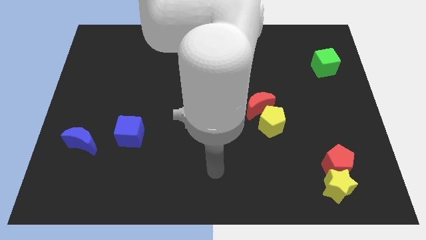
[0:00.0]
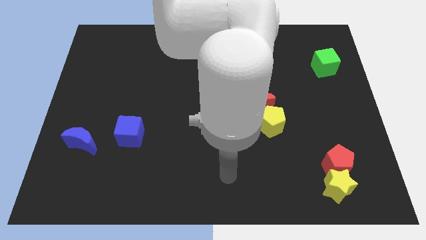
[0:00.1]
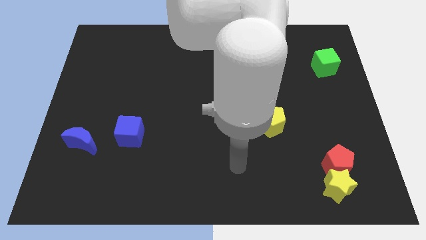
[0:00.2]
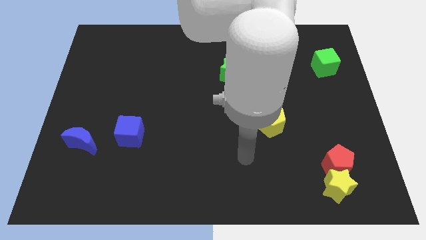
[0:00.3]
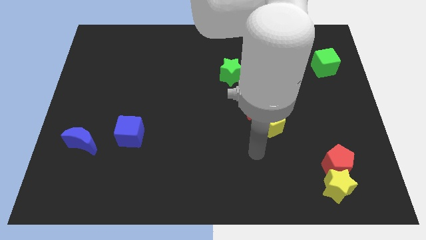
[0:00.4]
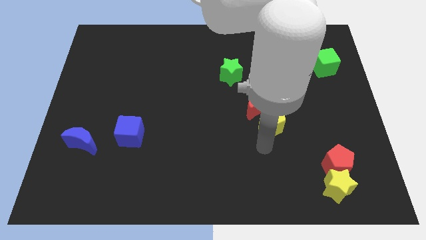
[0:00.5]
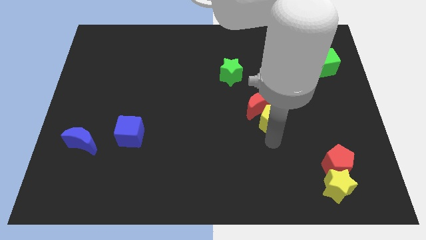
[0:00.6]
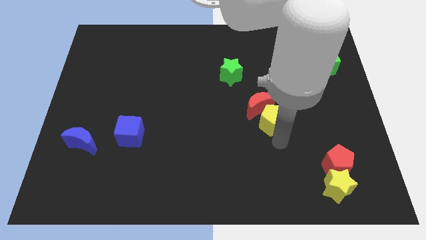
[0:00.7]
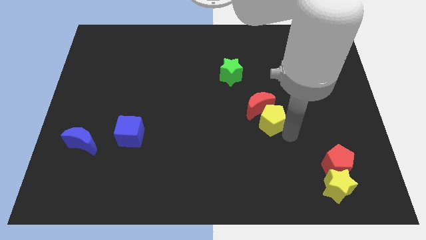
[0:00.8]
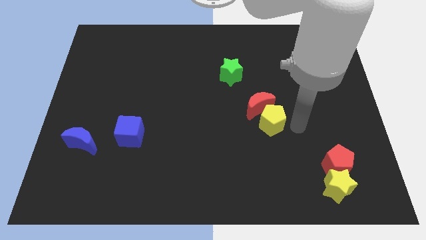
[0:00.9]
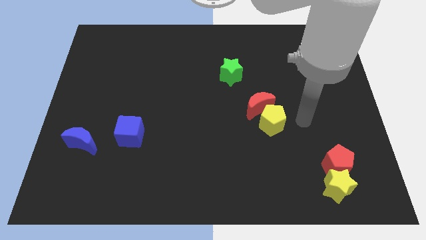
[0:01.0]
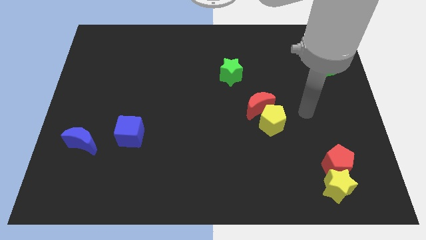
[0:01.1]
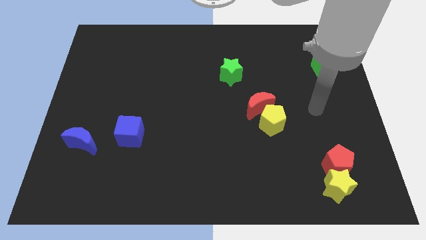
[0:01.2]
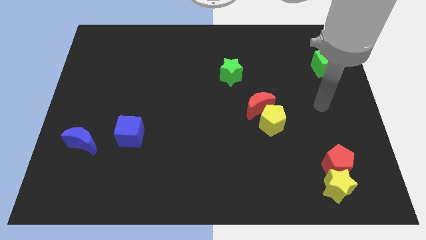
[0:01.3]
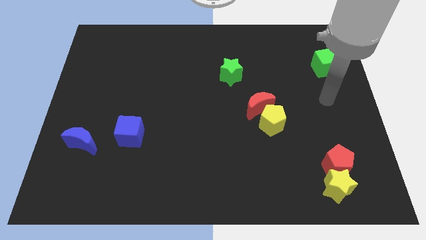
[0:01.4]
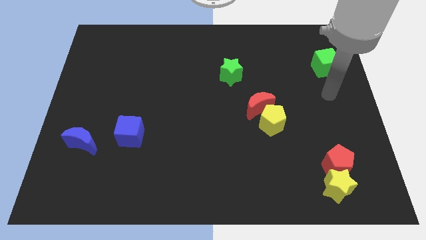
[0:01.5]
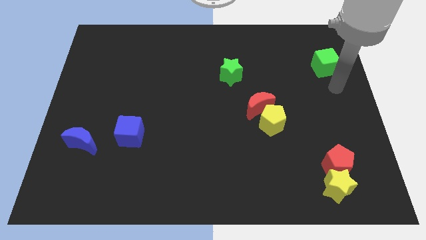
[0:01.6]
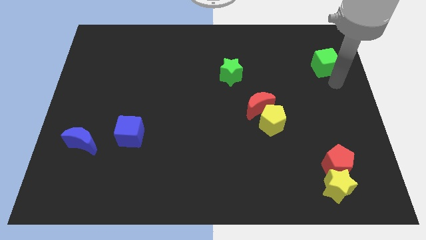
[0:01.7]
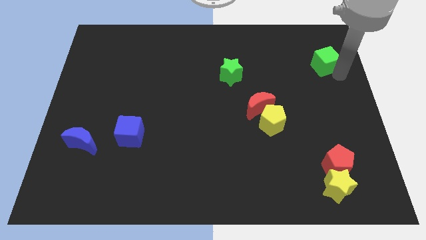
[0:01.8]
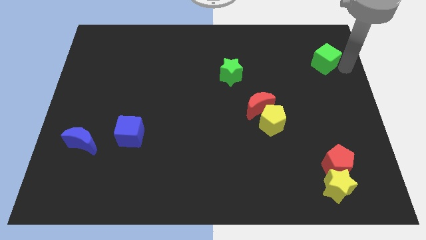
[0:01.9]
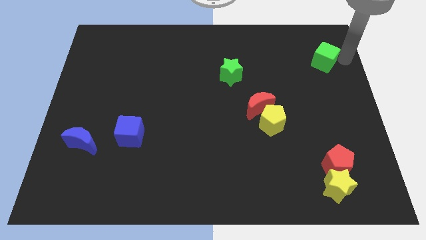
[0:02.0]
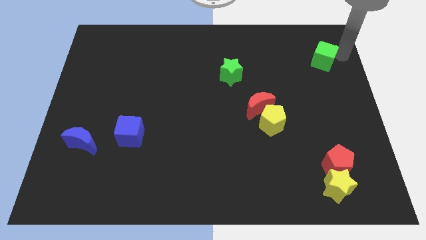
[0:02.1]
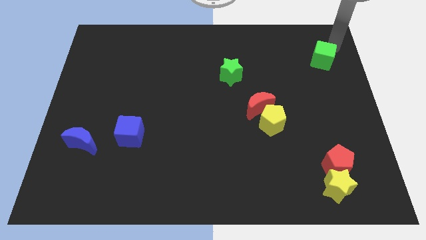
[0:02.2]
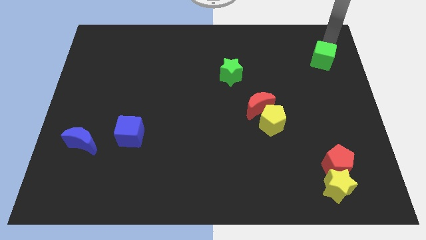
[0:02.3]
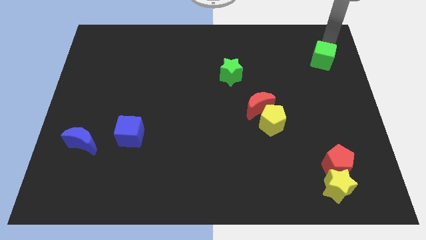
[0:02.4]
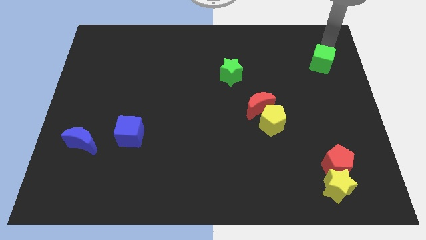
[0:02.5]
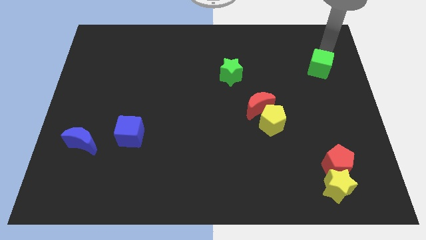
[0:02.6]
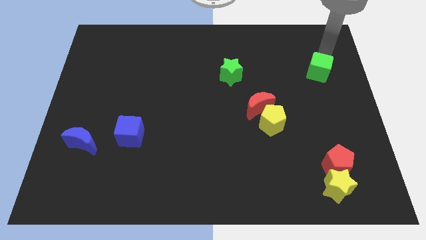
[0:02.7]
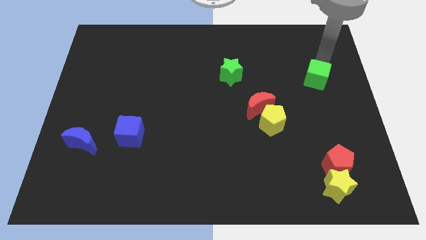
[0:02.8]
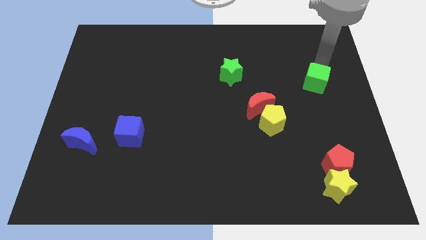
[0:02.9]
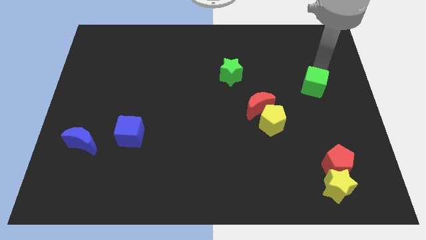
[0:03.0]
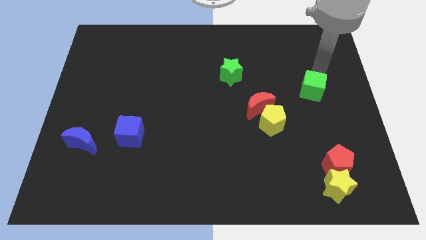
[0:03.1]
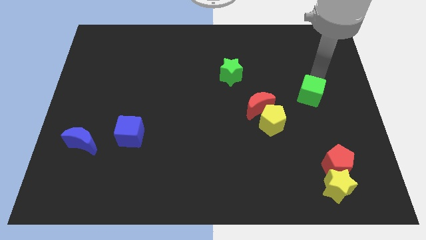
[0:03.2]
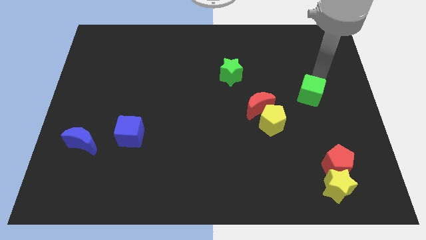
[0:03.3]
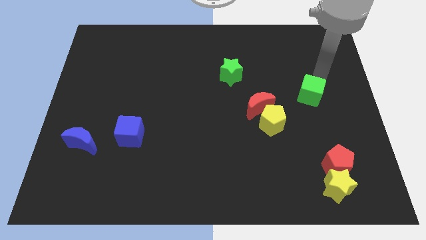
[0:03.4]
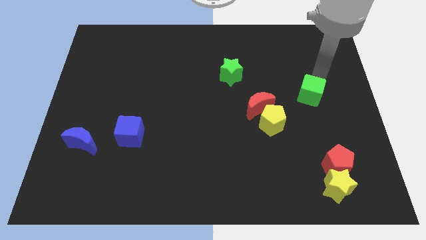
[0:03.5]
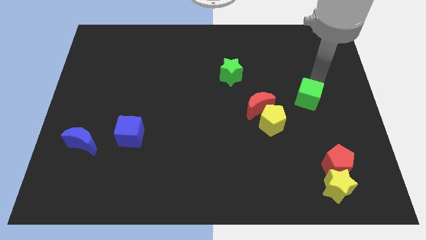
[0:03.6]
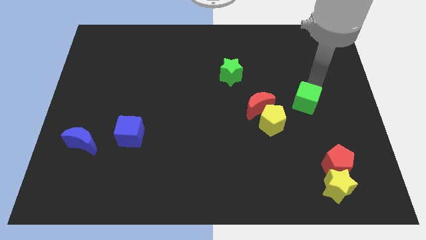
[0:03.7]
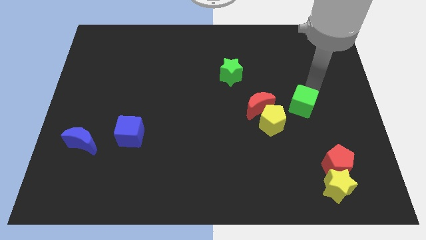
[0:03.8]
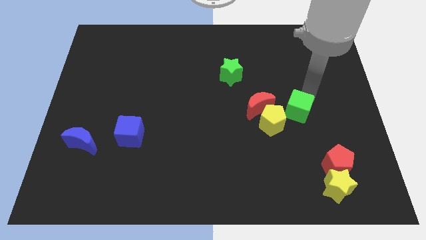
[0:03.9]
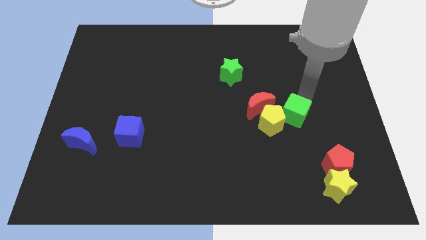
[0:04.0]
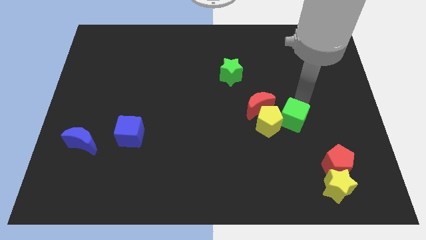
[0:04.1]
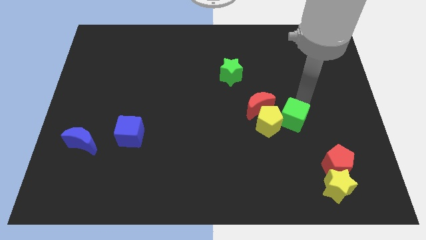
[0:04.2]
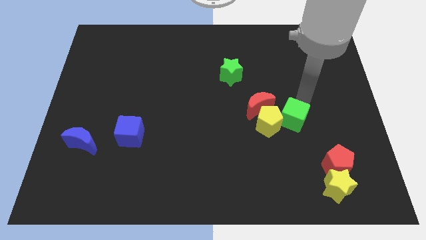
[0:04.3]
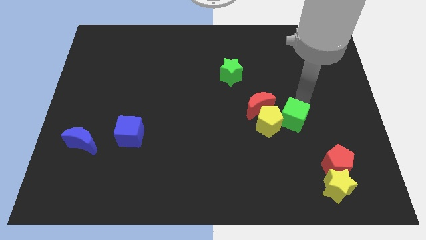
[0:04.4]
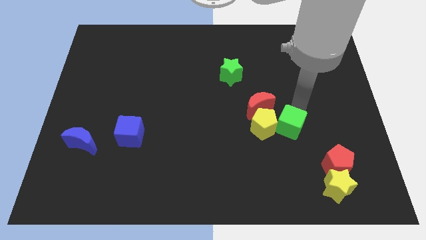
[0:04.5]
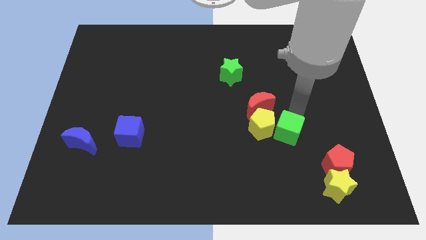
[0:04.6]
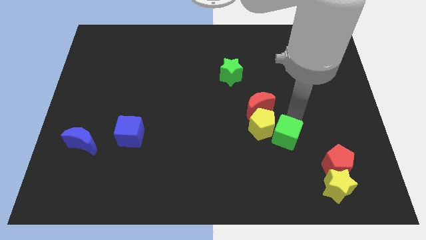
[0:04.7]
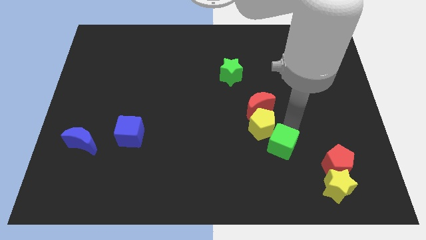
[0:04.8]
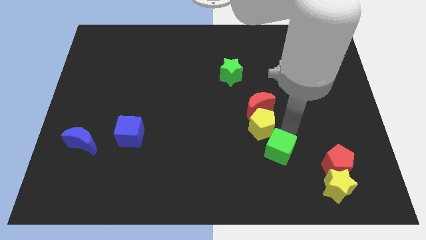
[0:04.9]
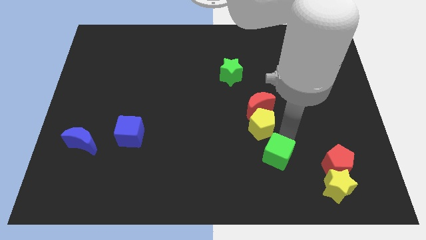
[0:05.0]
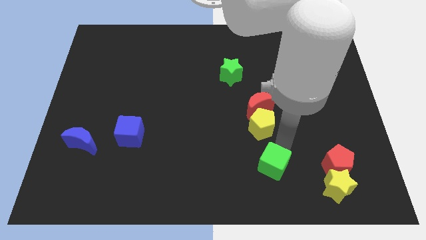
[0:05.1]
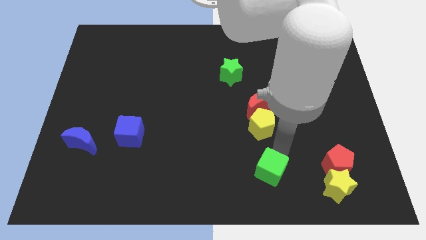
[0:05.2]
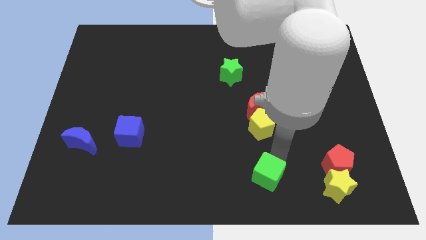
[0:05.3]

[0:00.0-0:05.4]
push the green cube to the bottom

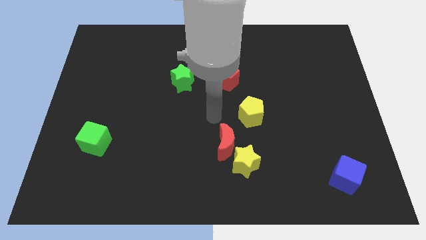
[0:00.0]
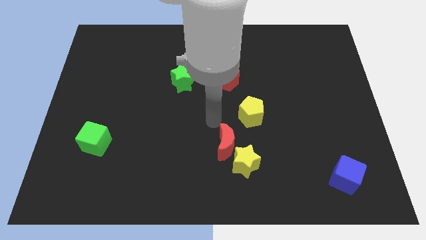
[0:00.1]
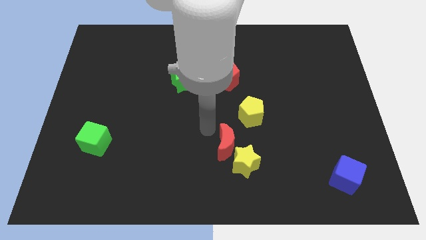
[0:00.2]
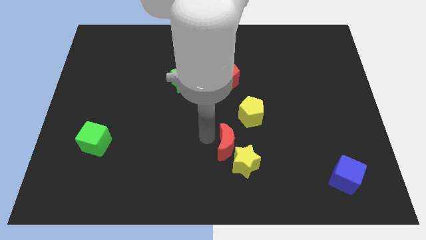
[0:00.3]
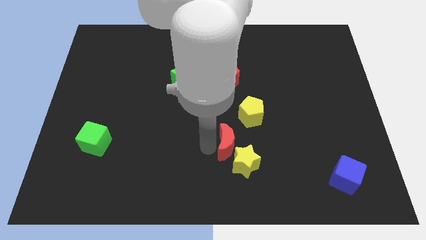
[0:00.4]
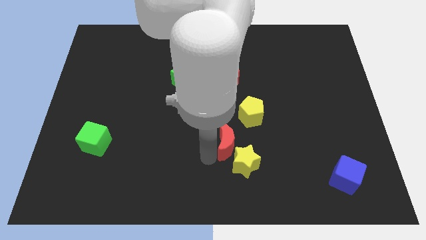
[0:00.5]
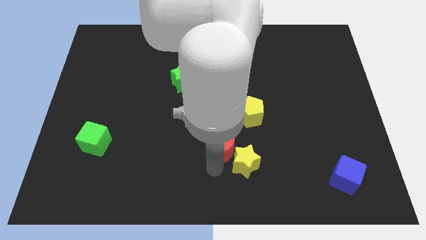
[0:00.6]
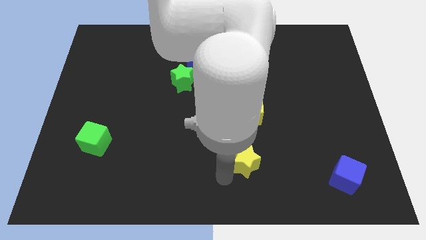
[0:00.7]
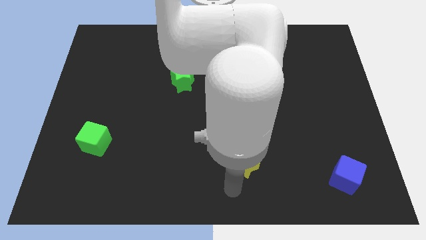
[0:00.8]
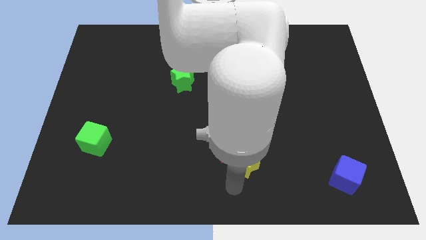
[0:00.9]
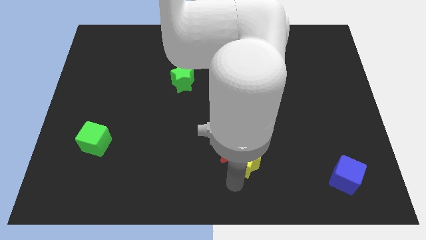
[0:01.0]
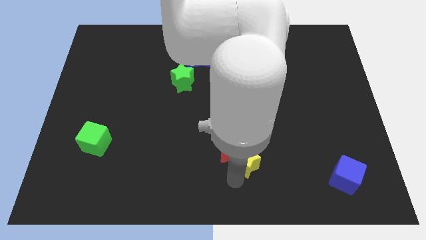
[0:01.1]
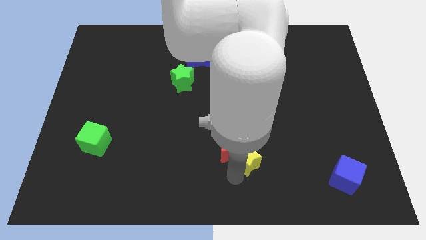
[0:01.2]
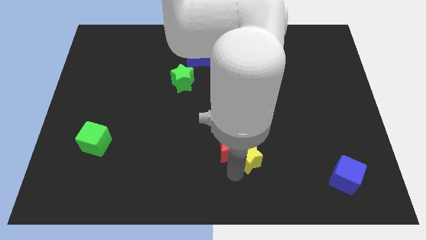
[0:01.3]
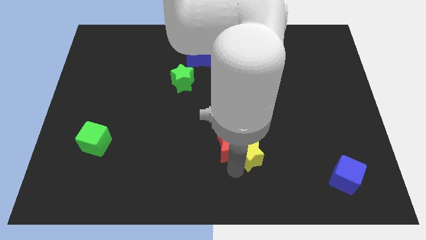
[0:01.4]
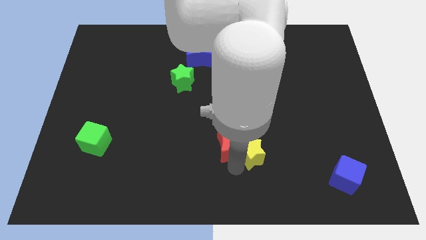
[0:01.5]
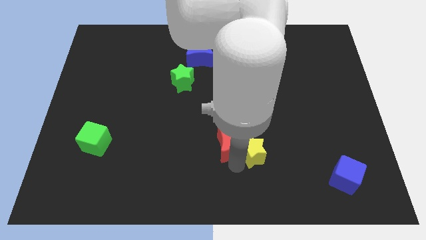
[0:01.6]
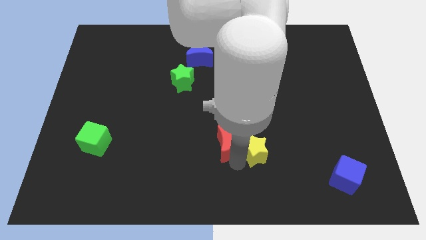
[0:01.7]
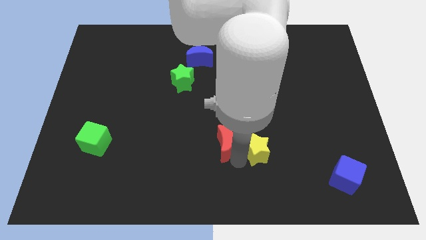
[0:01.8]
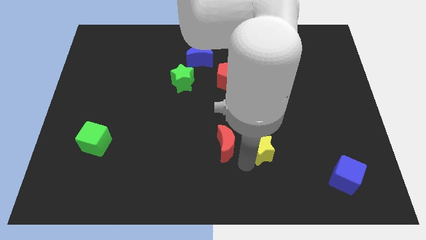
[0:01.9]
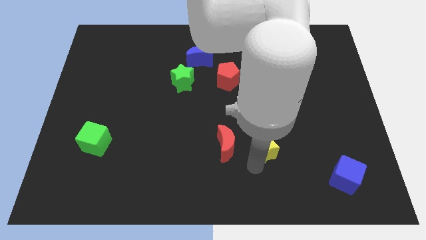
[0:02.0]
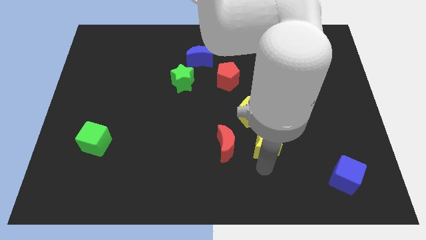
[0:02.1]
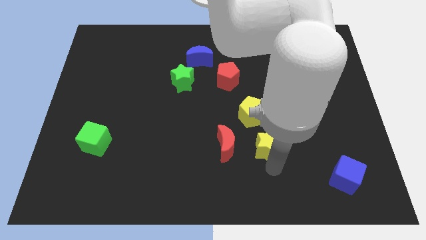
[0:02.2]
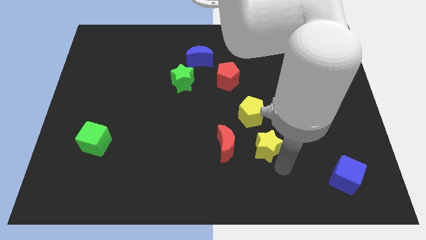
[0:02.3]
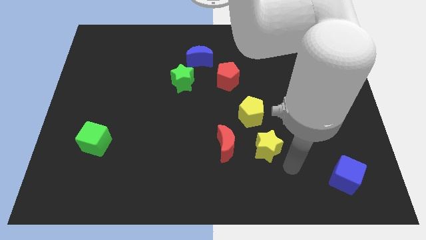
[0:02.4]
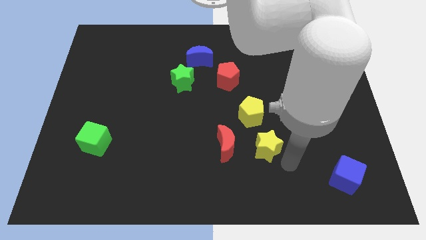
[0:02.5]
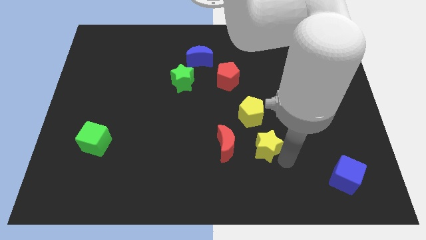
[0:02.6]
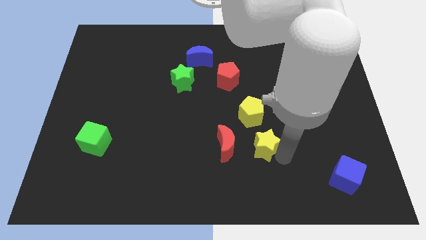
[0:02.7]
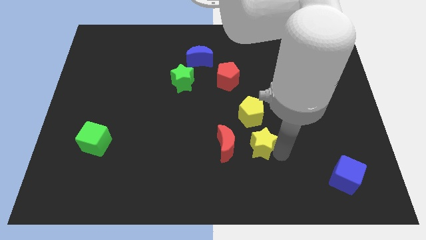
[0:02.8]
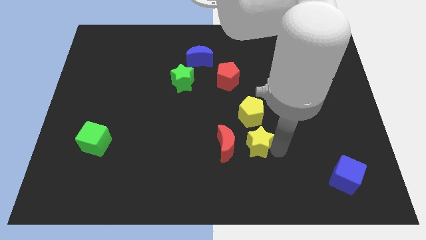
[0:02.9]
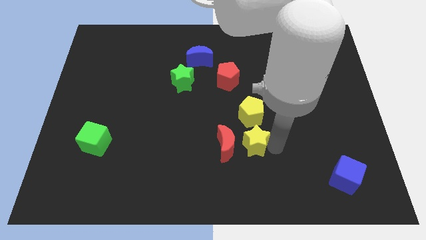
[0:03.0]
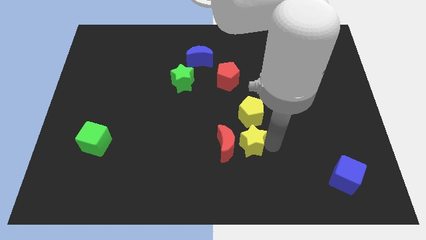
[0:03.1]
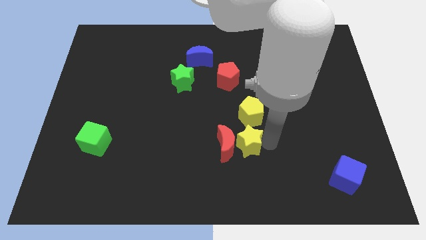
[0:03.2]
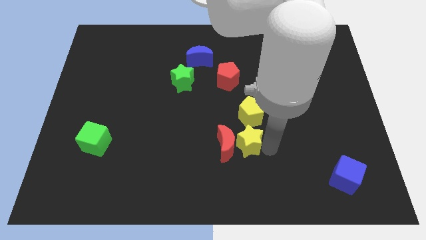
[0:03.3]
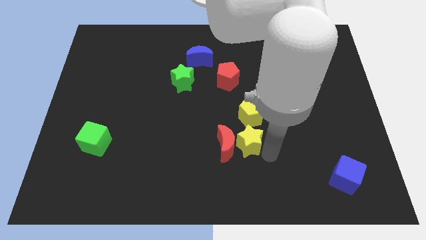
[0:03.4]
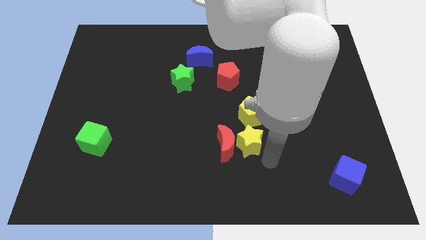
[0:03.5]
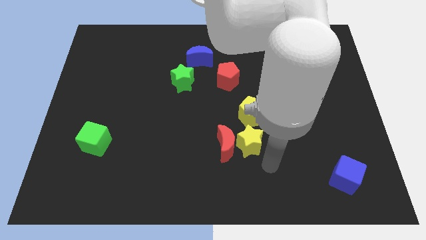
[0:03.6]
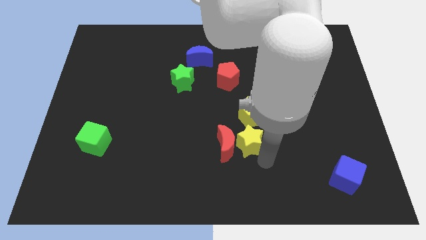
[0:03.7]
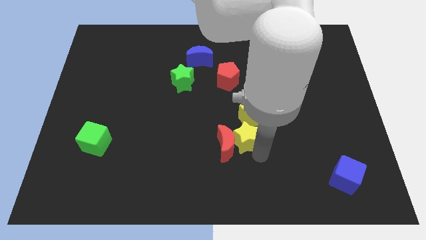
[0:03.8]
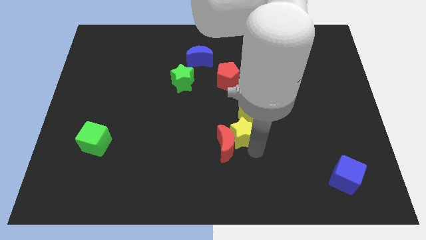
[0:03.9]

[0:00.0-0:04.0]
put the yellow star to the center of the board
